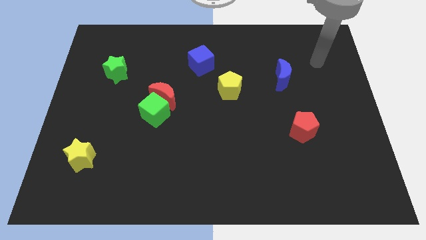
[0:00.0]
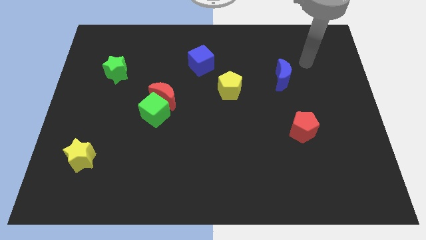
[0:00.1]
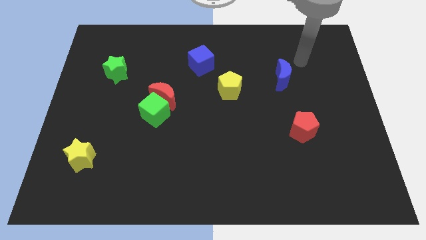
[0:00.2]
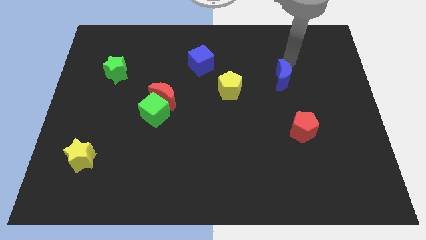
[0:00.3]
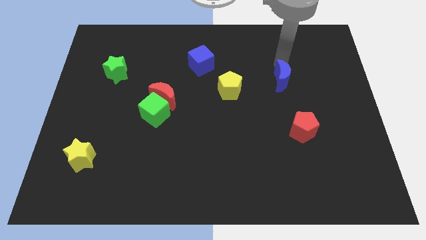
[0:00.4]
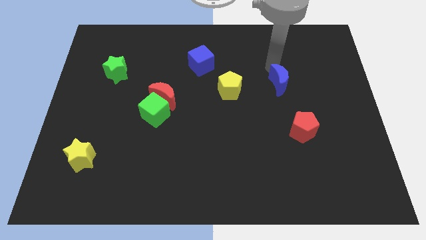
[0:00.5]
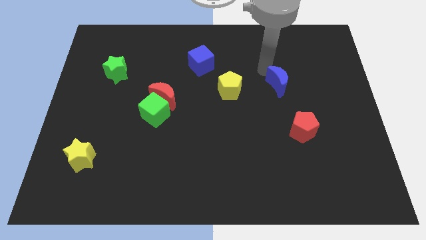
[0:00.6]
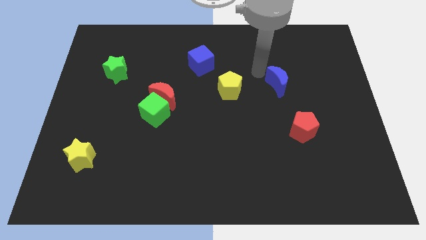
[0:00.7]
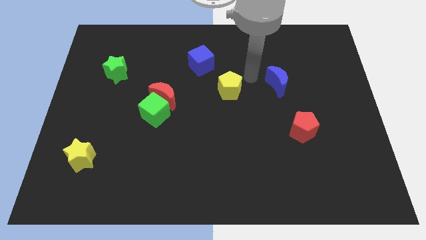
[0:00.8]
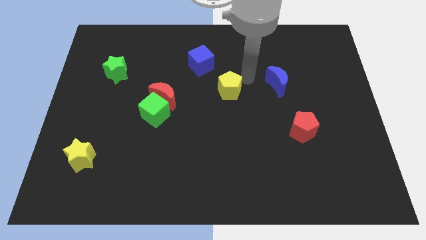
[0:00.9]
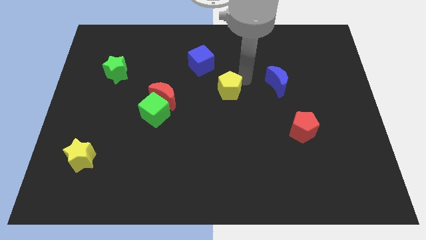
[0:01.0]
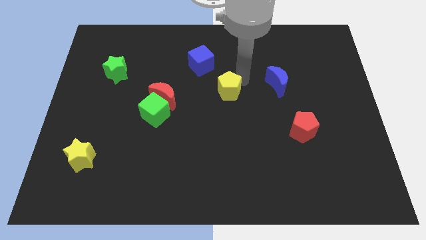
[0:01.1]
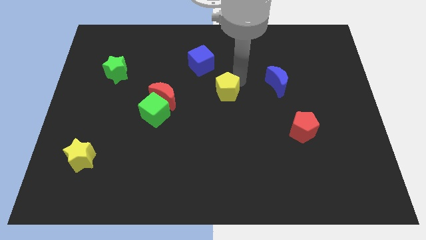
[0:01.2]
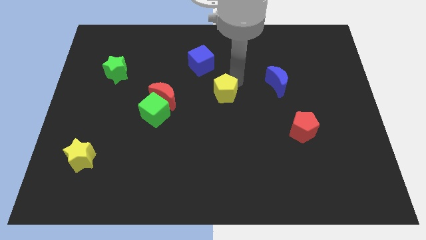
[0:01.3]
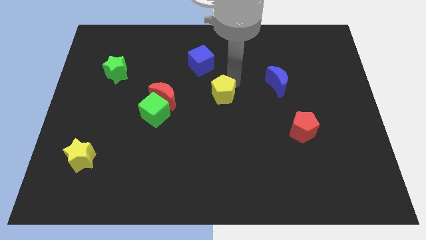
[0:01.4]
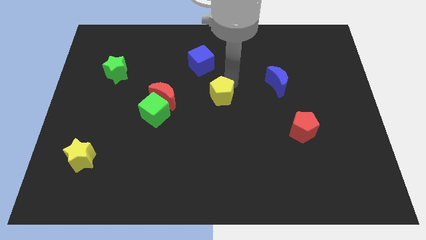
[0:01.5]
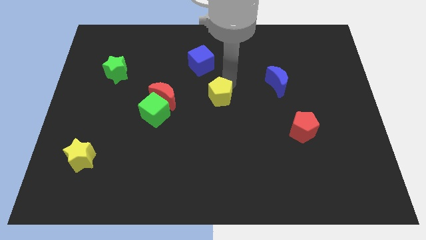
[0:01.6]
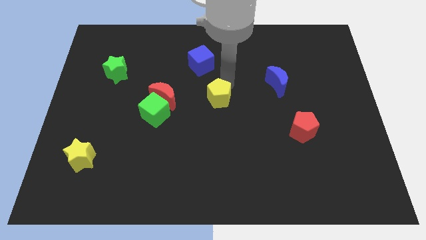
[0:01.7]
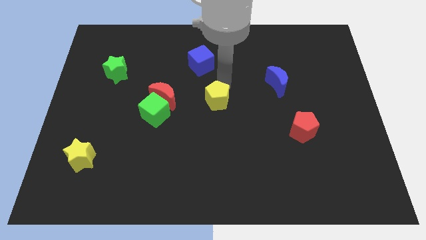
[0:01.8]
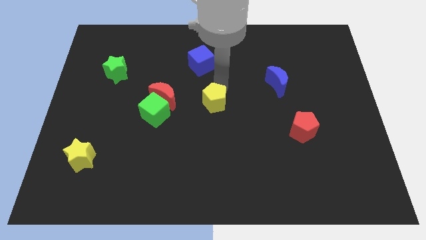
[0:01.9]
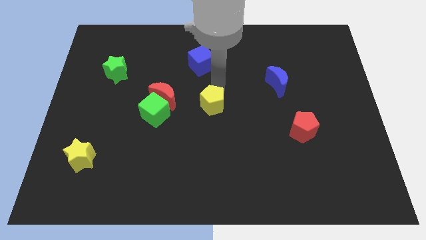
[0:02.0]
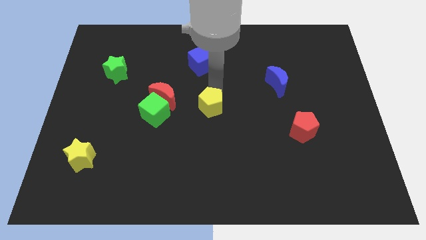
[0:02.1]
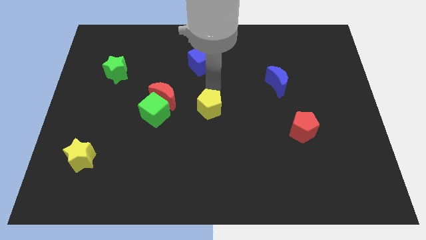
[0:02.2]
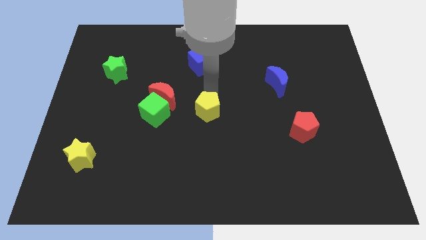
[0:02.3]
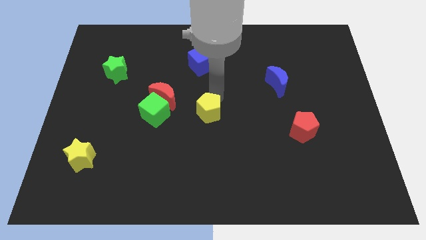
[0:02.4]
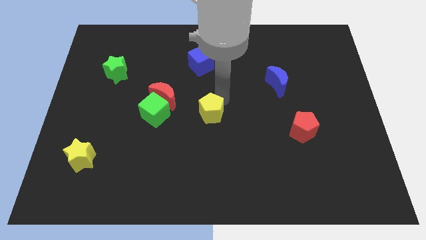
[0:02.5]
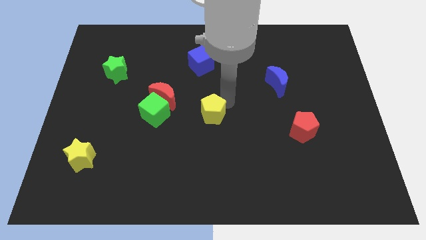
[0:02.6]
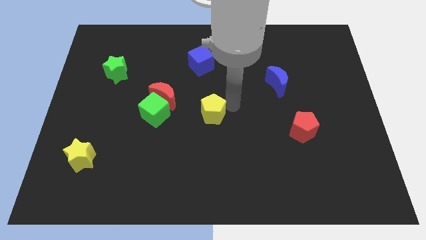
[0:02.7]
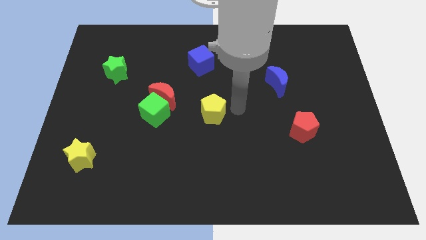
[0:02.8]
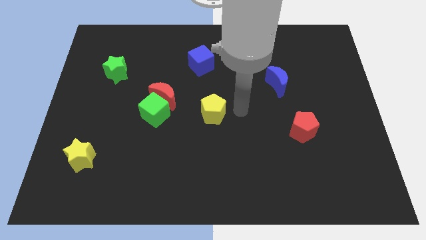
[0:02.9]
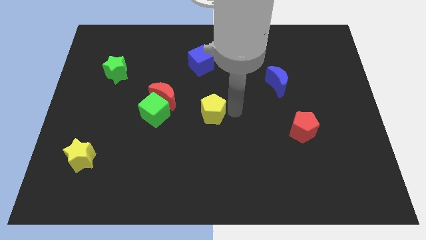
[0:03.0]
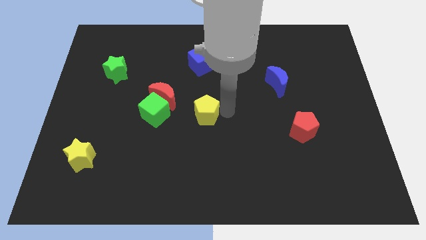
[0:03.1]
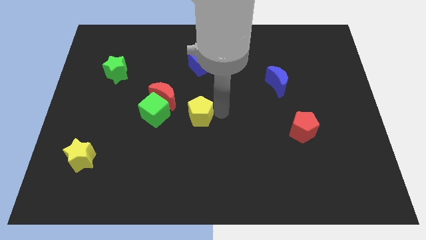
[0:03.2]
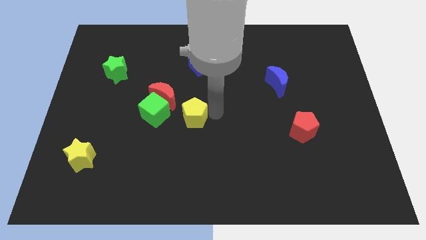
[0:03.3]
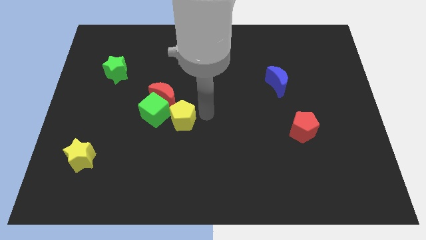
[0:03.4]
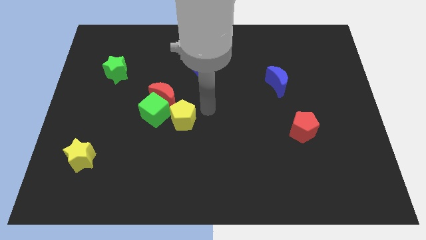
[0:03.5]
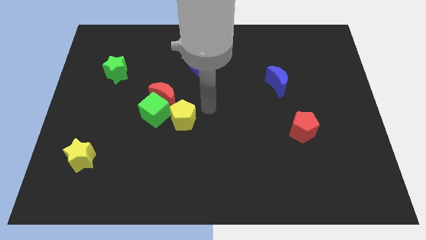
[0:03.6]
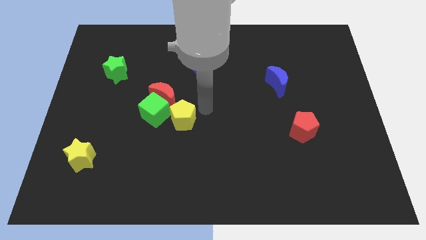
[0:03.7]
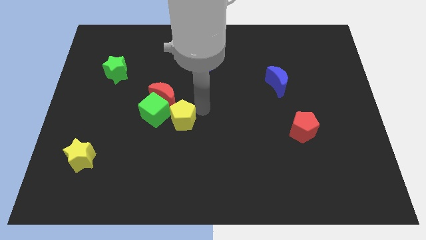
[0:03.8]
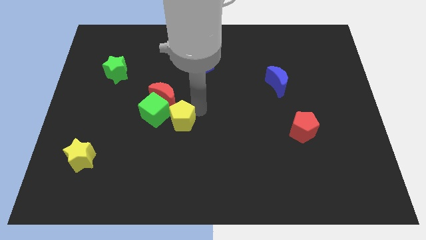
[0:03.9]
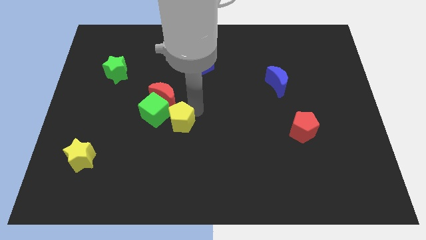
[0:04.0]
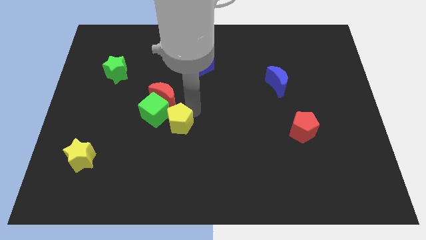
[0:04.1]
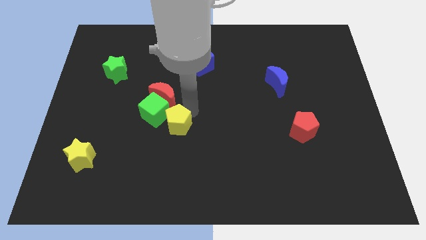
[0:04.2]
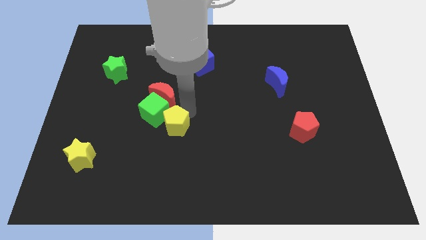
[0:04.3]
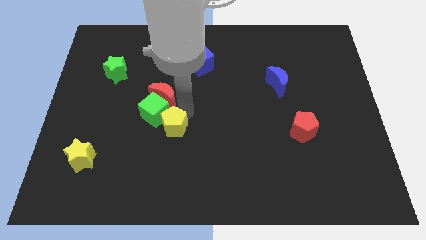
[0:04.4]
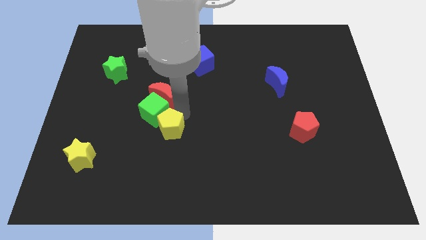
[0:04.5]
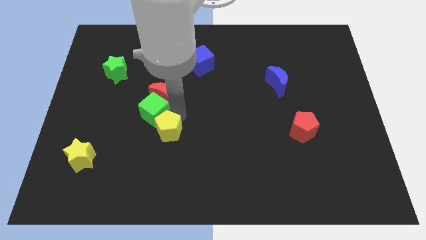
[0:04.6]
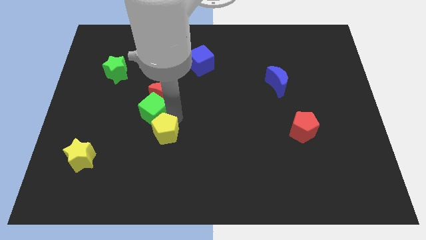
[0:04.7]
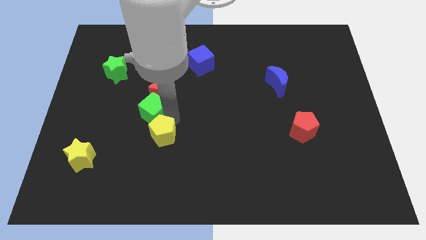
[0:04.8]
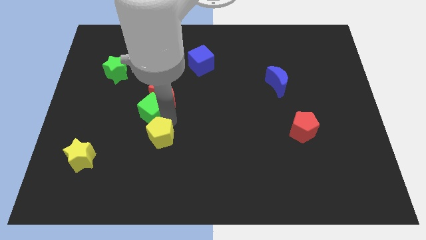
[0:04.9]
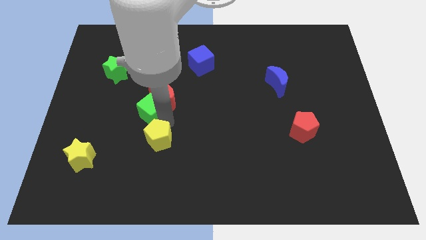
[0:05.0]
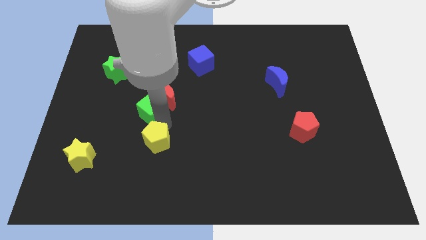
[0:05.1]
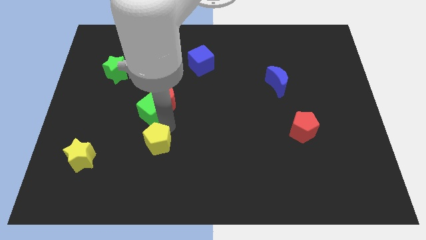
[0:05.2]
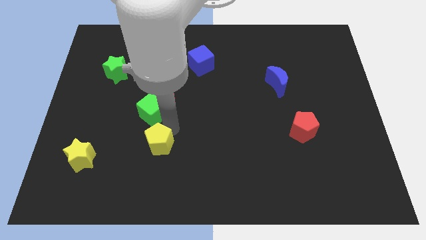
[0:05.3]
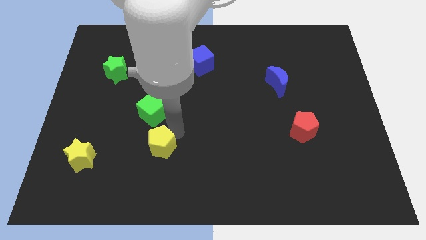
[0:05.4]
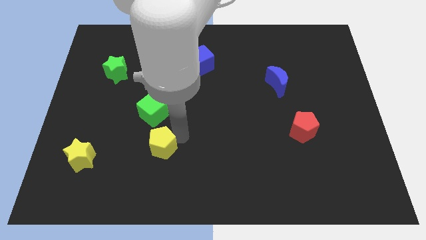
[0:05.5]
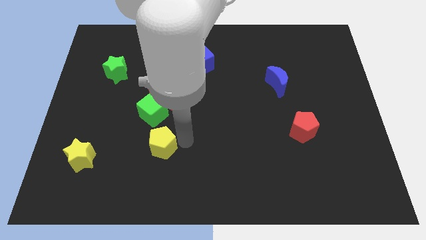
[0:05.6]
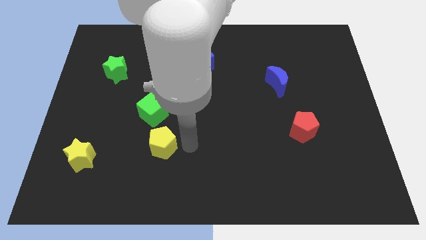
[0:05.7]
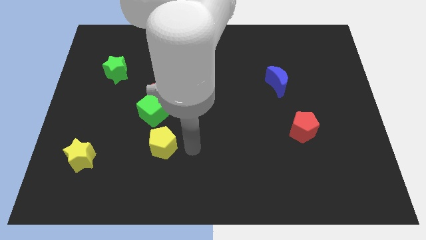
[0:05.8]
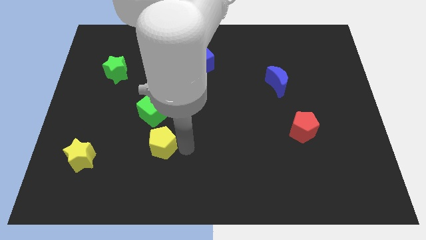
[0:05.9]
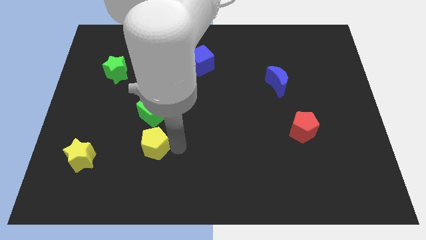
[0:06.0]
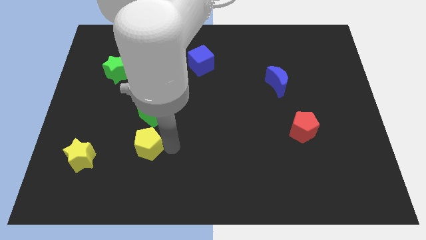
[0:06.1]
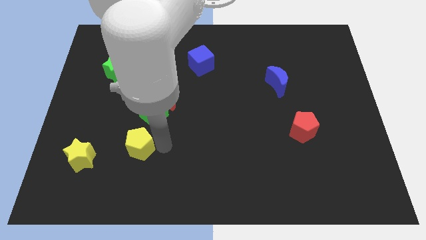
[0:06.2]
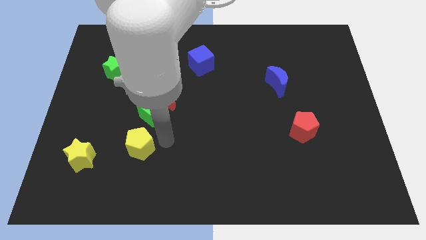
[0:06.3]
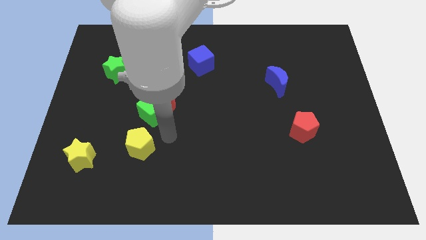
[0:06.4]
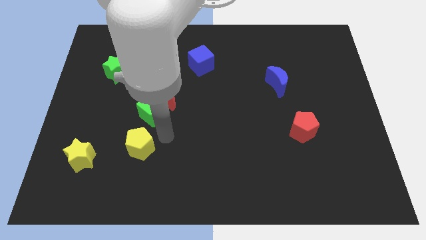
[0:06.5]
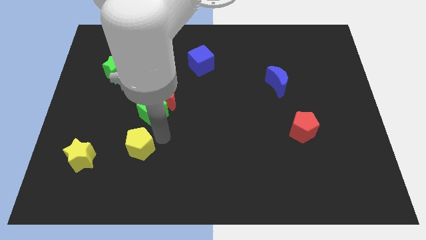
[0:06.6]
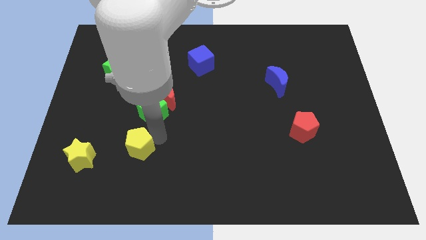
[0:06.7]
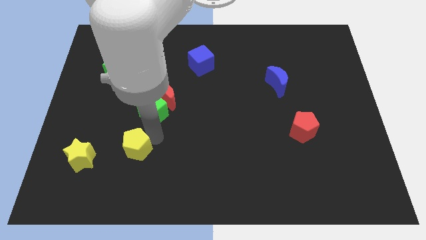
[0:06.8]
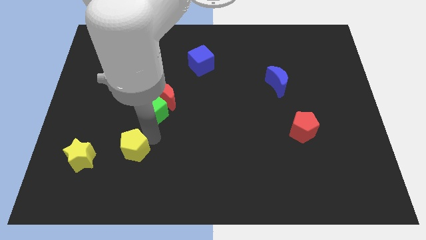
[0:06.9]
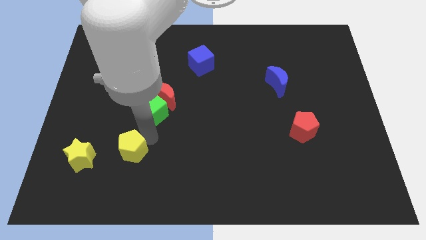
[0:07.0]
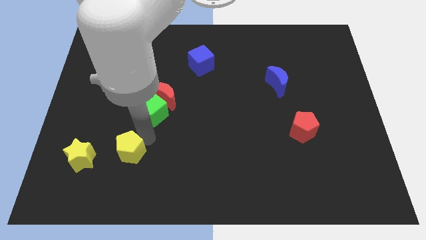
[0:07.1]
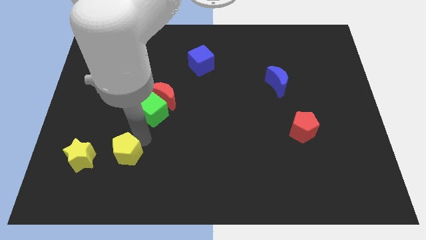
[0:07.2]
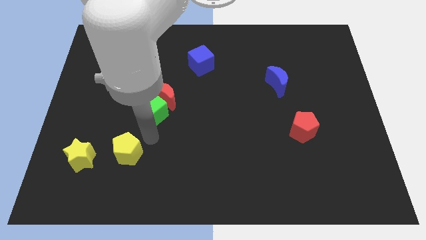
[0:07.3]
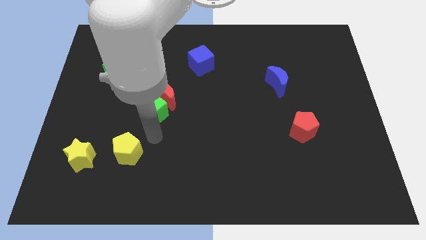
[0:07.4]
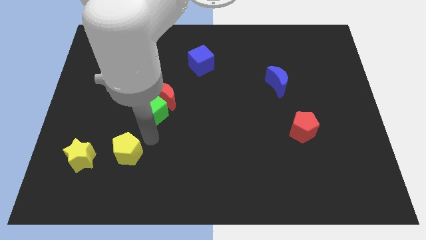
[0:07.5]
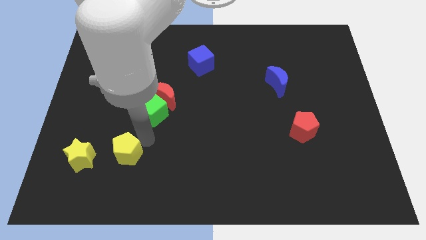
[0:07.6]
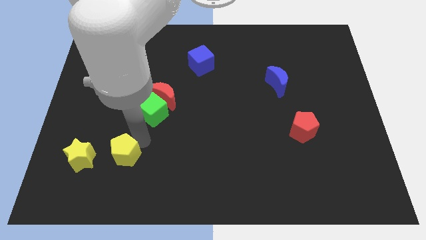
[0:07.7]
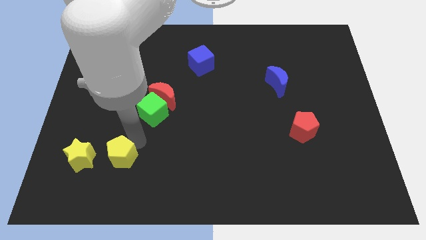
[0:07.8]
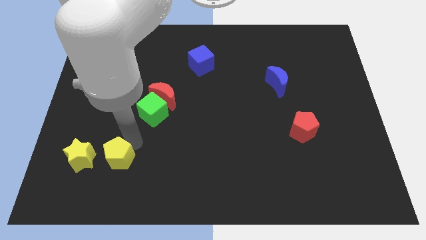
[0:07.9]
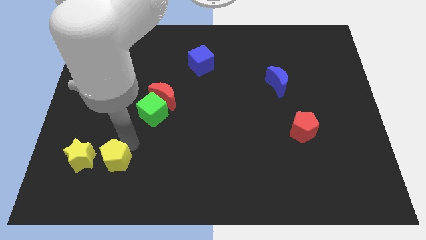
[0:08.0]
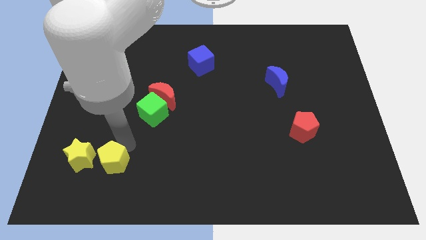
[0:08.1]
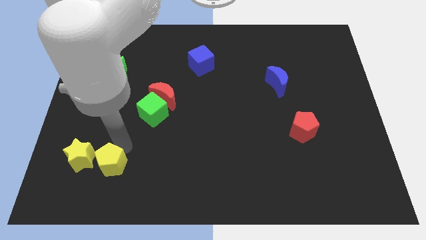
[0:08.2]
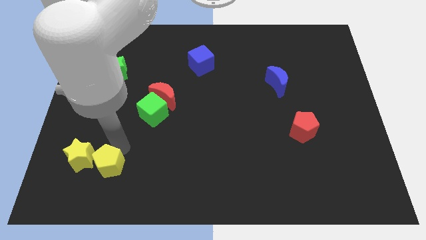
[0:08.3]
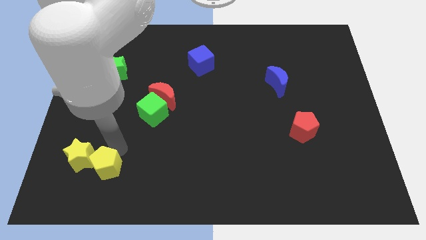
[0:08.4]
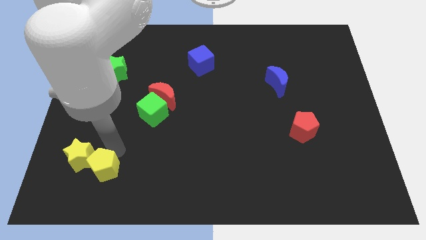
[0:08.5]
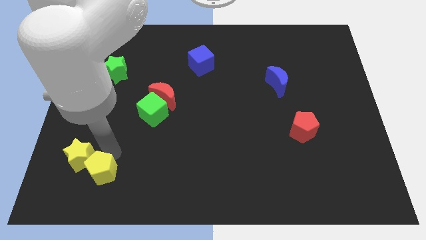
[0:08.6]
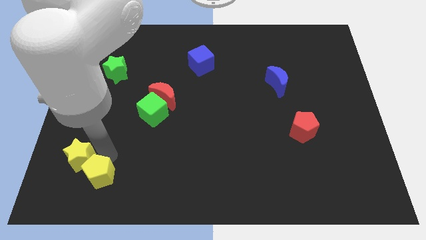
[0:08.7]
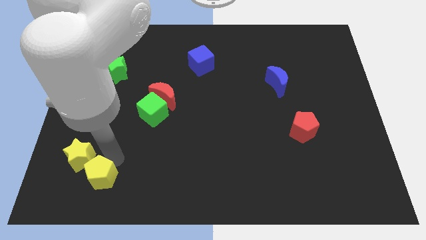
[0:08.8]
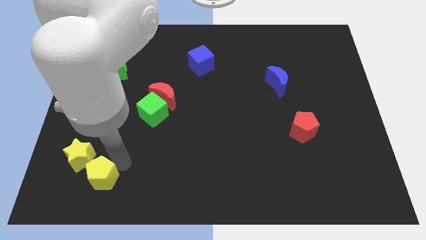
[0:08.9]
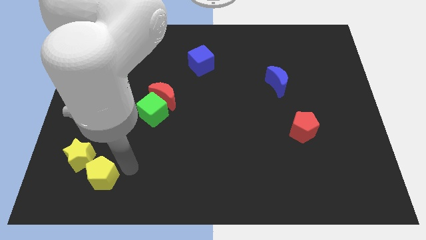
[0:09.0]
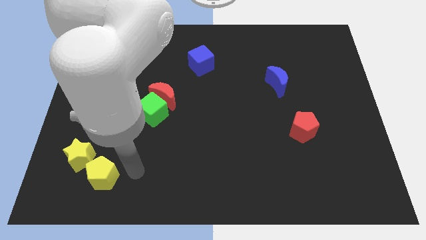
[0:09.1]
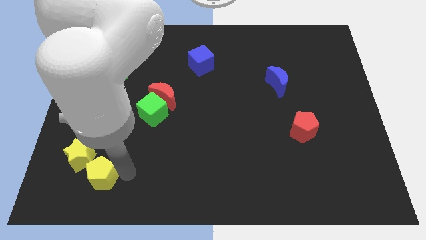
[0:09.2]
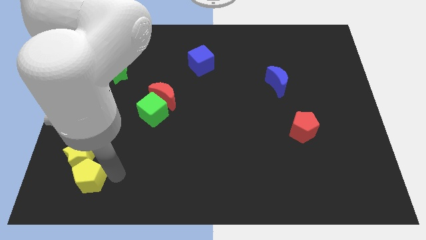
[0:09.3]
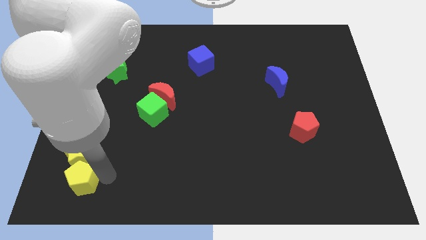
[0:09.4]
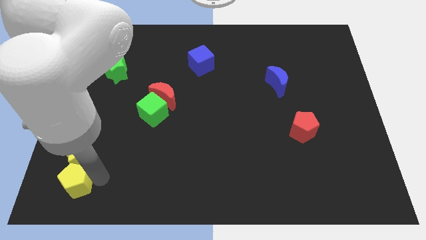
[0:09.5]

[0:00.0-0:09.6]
slide the yellow pentagon to the lower left corner
